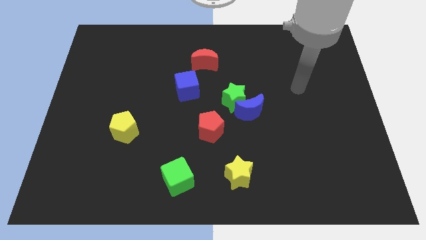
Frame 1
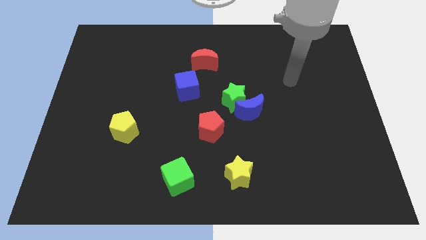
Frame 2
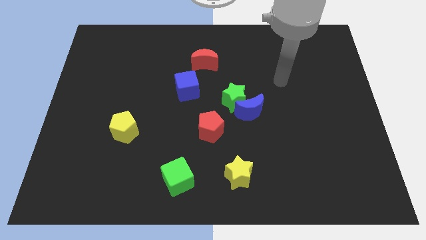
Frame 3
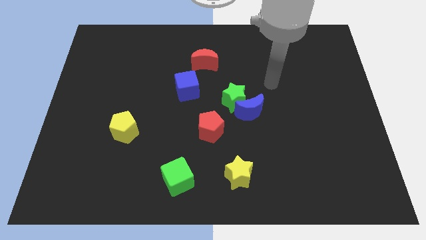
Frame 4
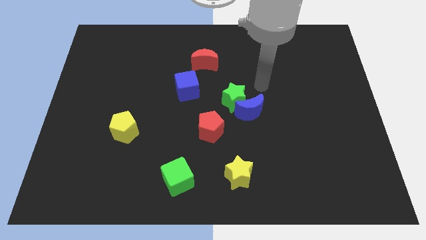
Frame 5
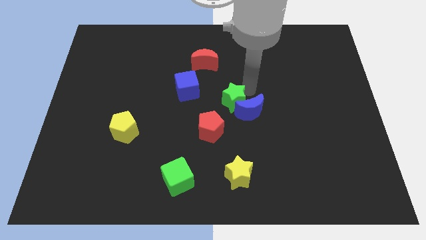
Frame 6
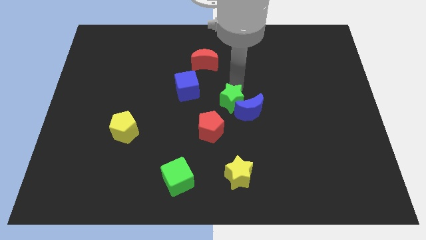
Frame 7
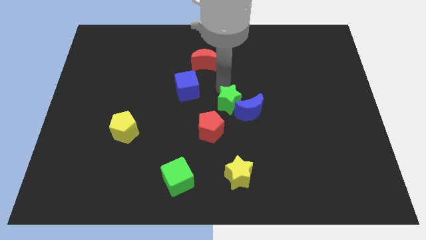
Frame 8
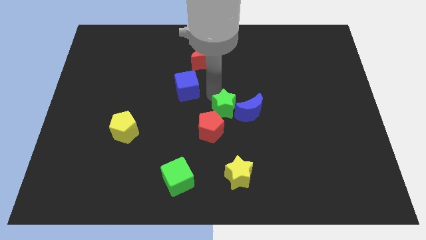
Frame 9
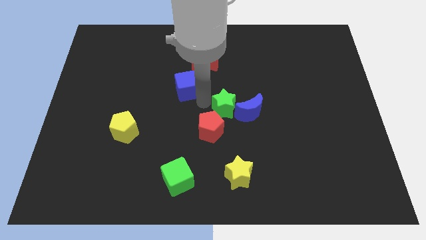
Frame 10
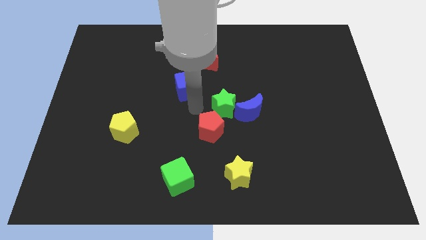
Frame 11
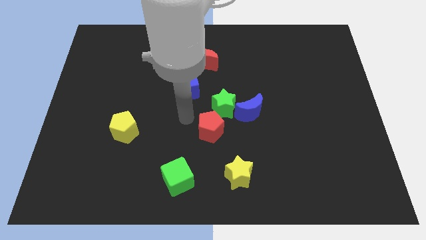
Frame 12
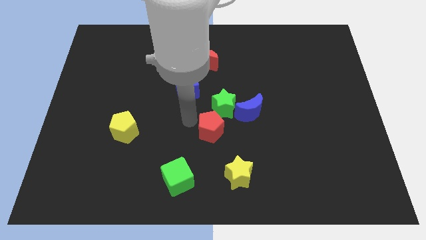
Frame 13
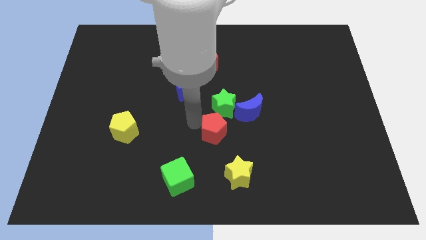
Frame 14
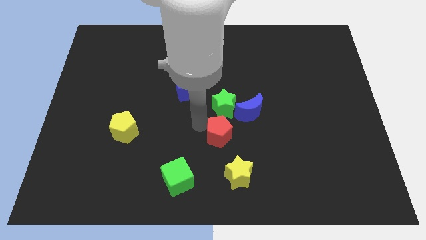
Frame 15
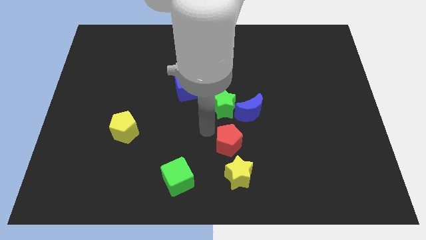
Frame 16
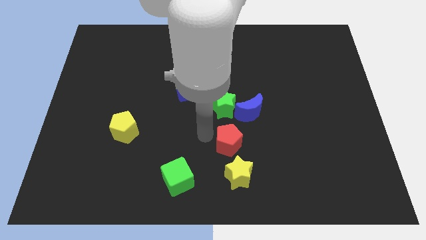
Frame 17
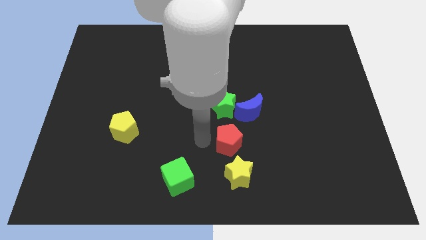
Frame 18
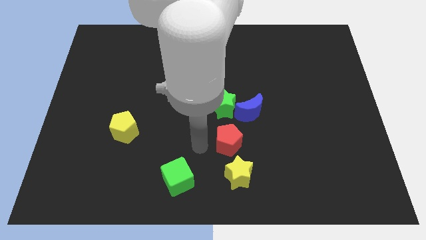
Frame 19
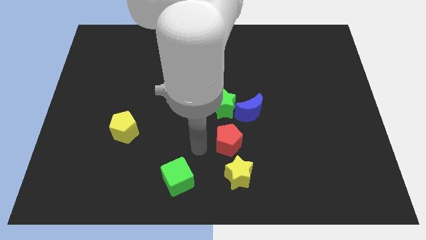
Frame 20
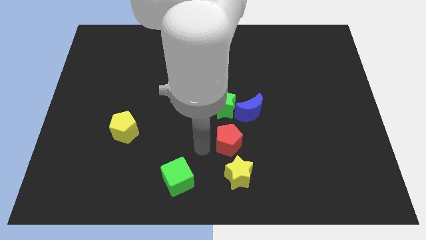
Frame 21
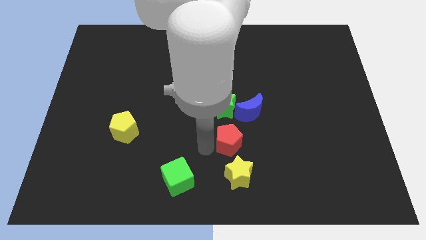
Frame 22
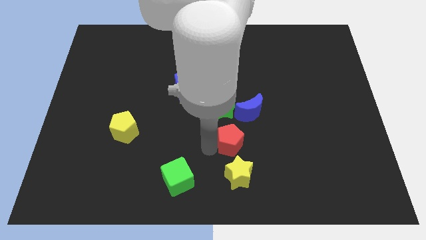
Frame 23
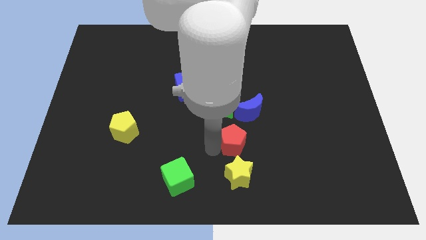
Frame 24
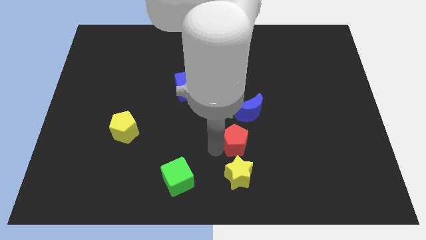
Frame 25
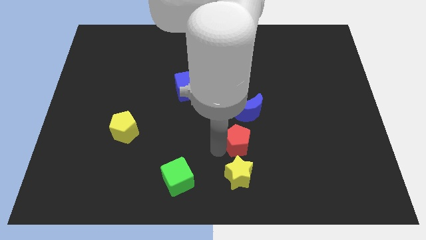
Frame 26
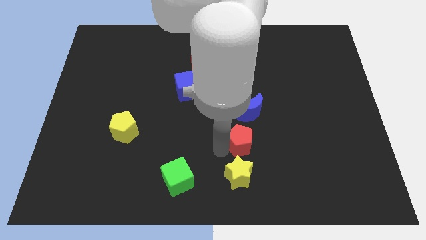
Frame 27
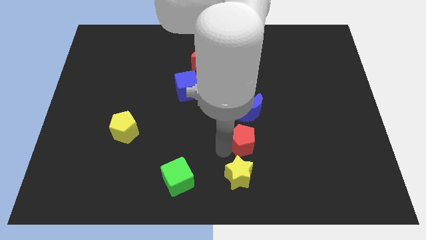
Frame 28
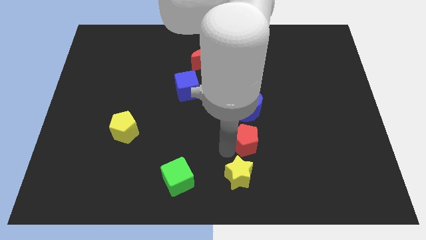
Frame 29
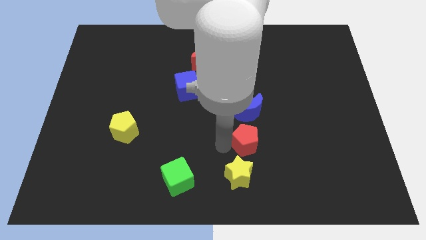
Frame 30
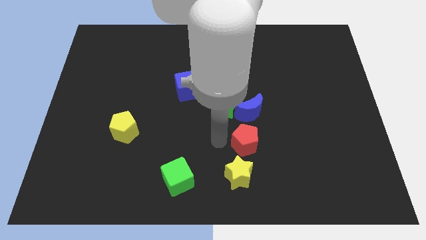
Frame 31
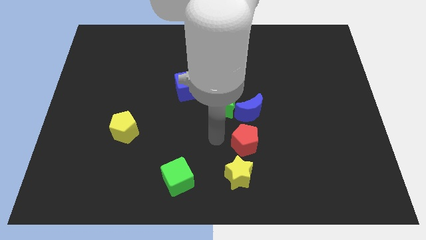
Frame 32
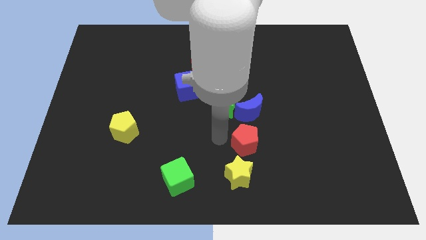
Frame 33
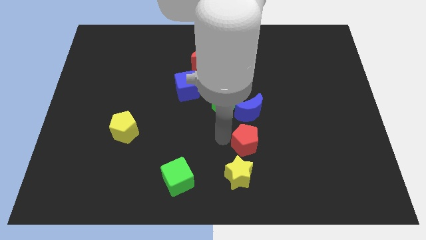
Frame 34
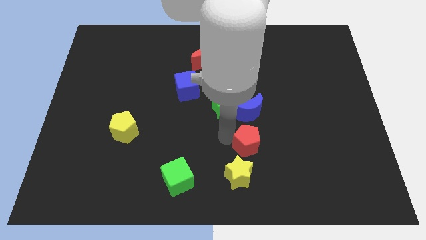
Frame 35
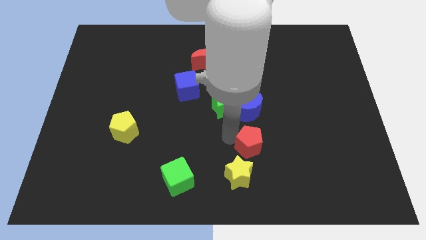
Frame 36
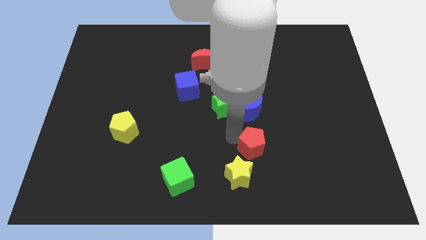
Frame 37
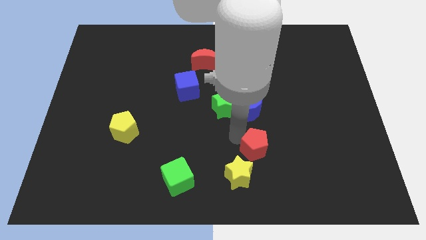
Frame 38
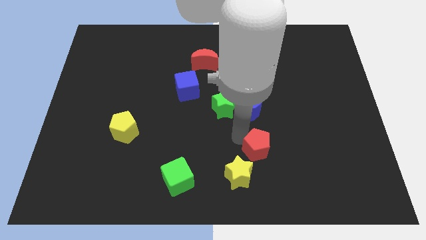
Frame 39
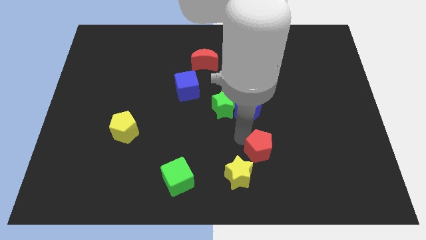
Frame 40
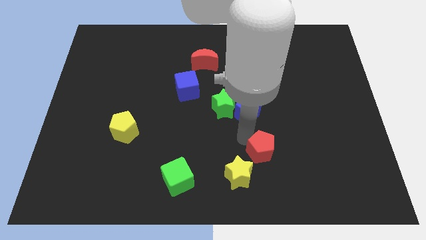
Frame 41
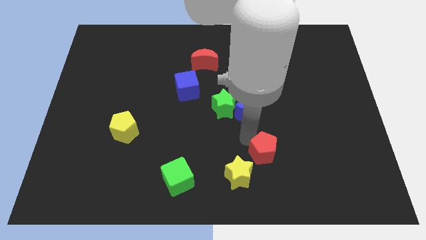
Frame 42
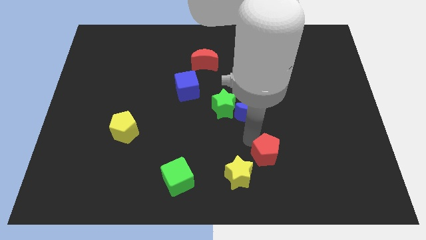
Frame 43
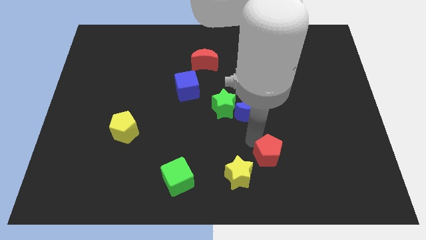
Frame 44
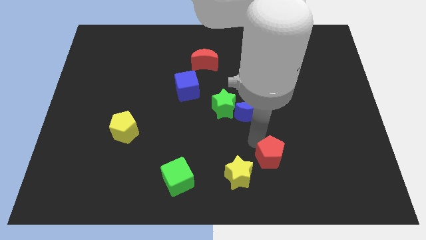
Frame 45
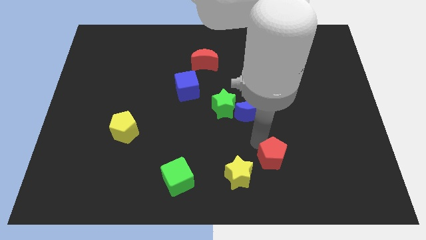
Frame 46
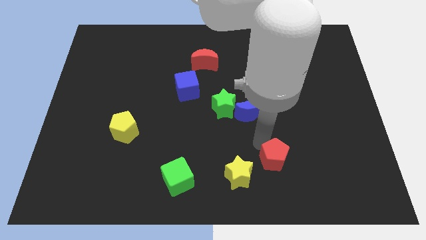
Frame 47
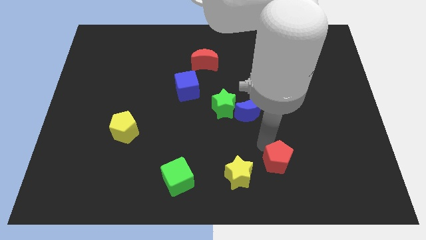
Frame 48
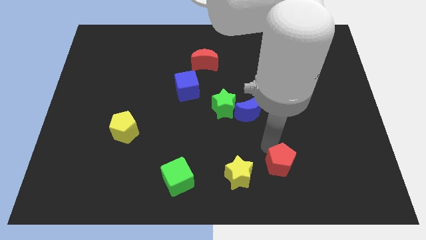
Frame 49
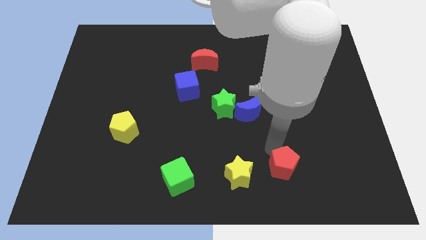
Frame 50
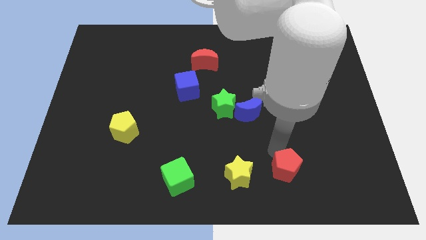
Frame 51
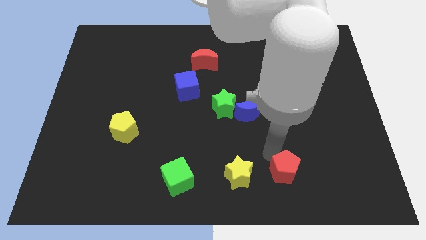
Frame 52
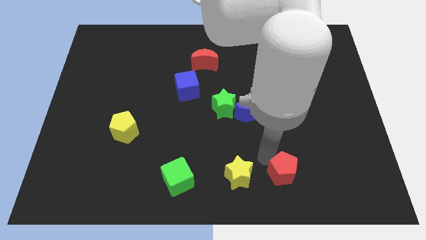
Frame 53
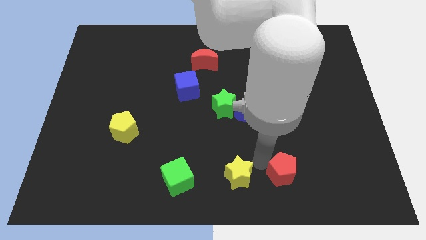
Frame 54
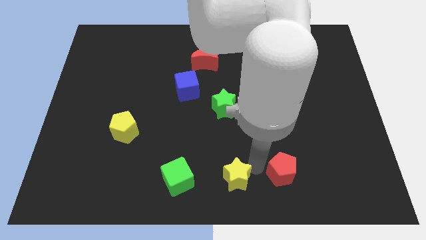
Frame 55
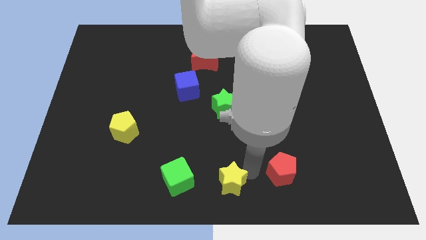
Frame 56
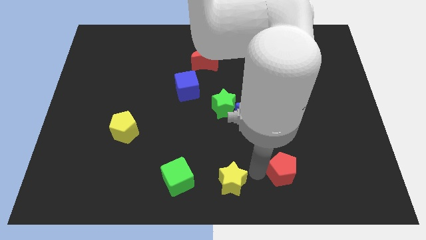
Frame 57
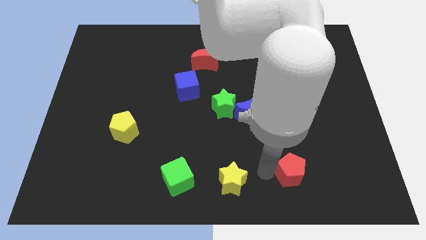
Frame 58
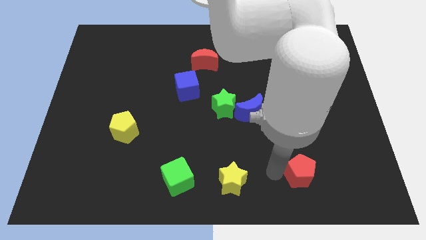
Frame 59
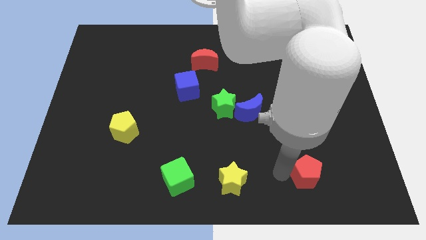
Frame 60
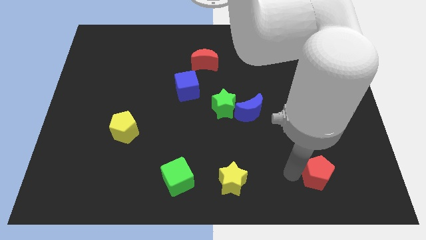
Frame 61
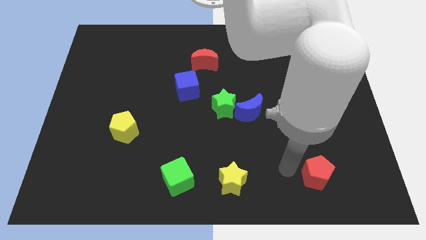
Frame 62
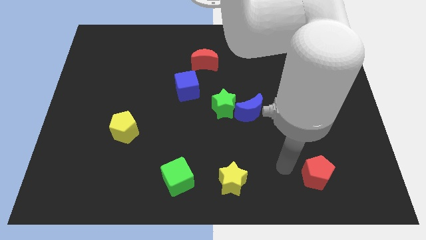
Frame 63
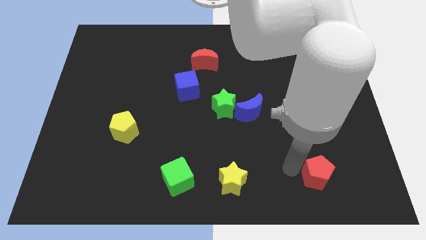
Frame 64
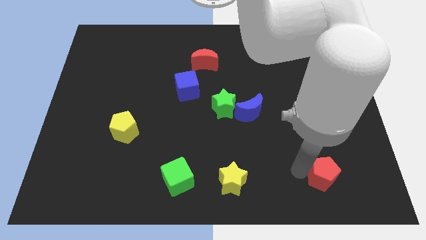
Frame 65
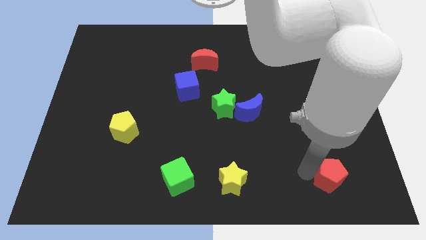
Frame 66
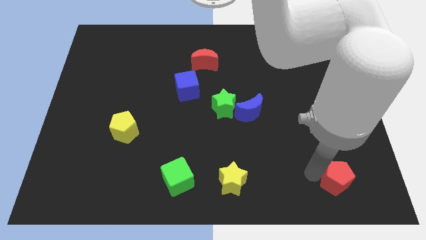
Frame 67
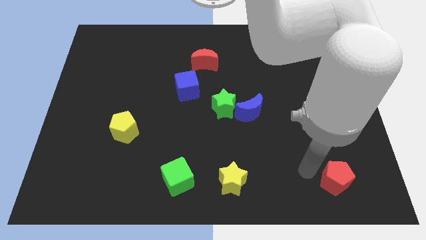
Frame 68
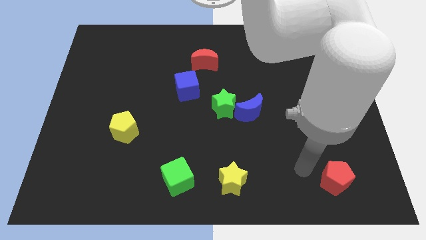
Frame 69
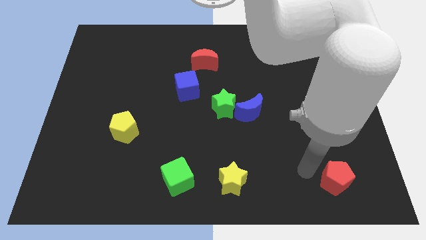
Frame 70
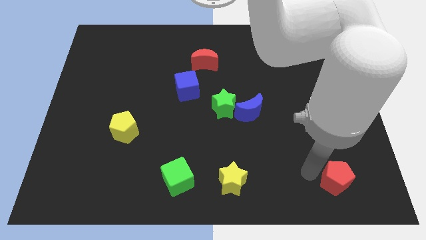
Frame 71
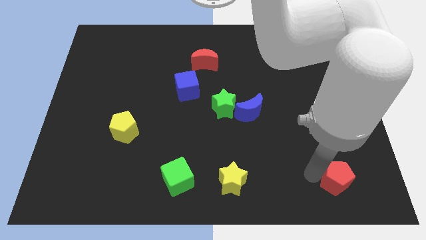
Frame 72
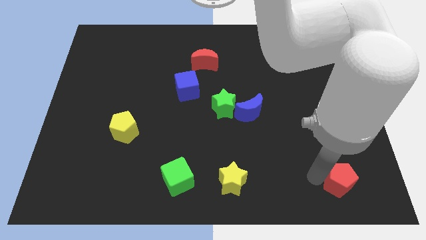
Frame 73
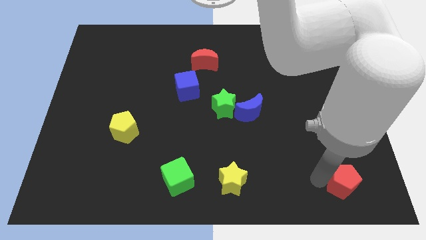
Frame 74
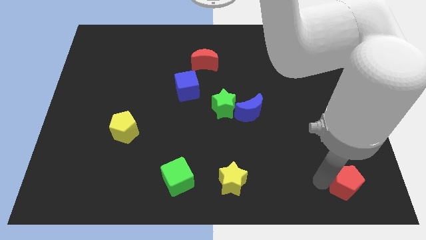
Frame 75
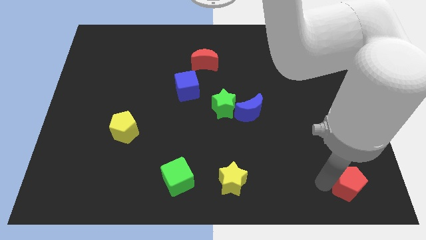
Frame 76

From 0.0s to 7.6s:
push the red pentagon to the lower right corner
